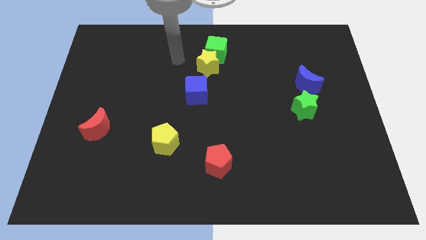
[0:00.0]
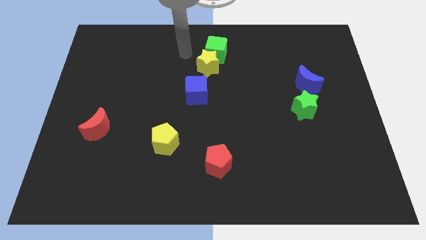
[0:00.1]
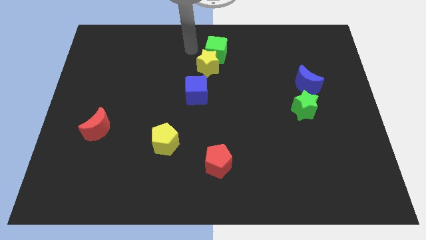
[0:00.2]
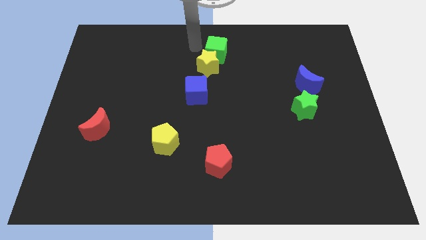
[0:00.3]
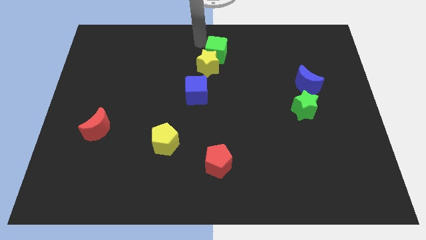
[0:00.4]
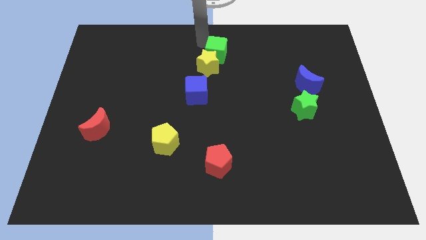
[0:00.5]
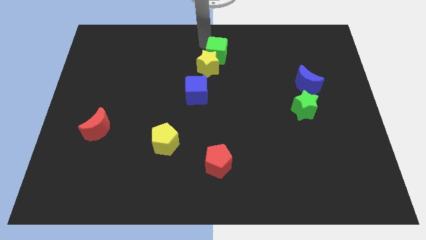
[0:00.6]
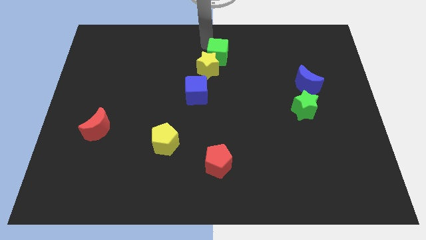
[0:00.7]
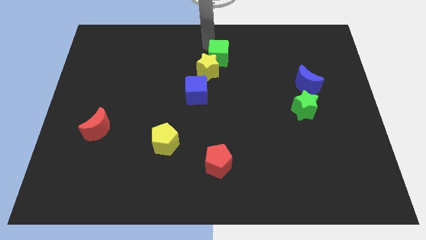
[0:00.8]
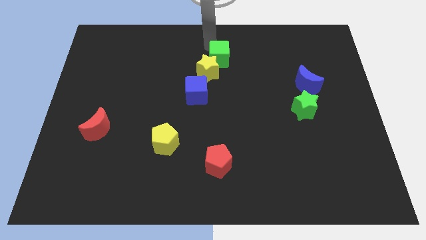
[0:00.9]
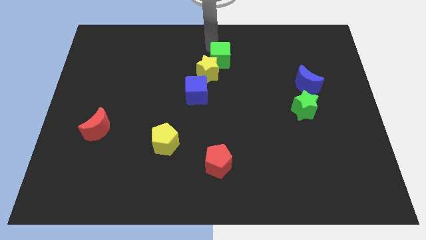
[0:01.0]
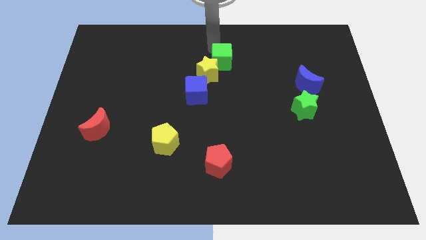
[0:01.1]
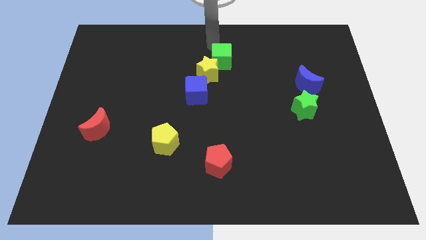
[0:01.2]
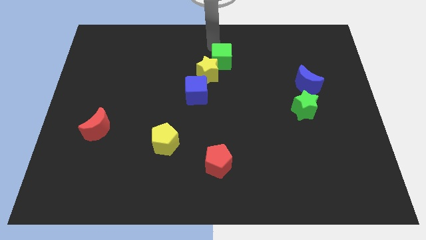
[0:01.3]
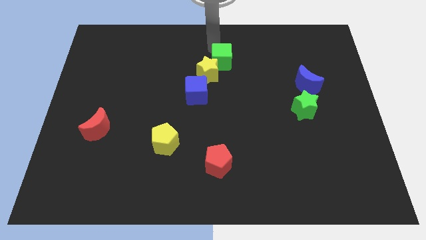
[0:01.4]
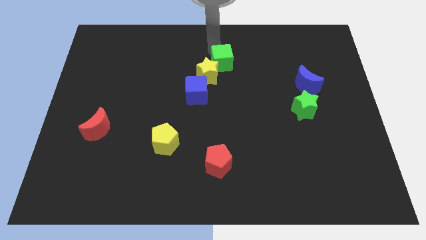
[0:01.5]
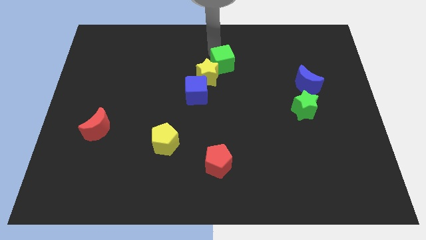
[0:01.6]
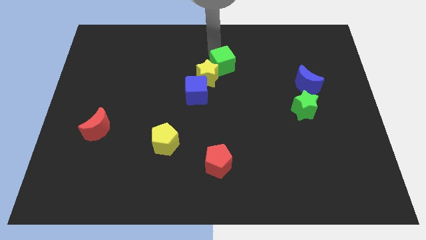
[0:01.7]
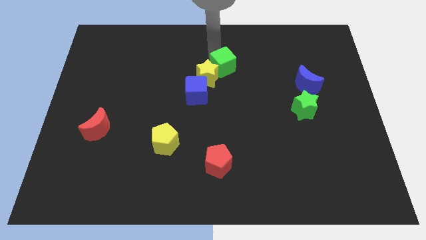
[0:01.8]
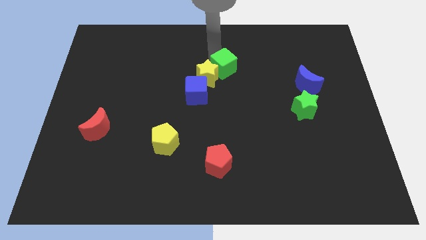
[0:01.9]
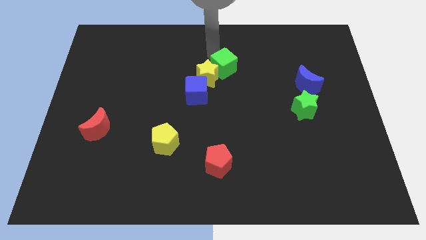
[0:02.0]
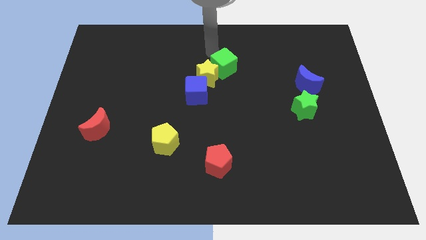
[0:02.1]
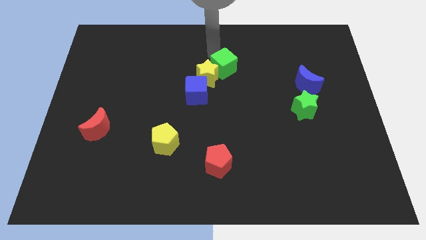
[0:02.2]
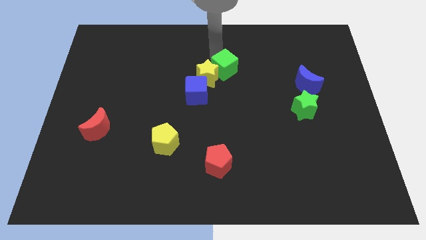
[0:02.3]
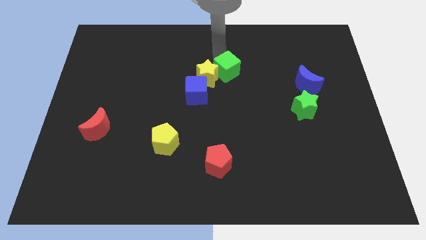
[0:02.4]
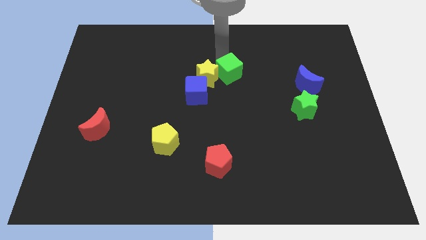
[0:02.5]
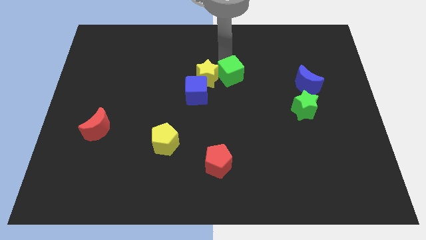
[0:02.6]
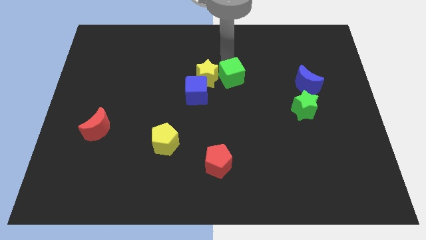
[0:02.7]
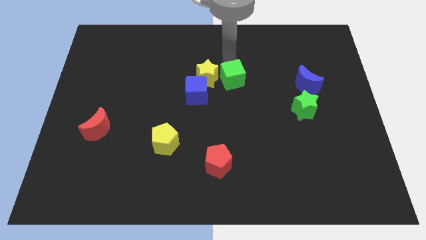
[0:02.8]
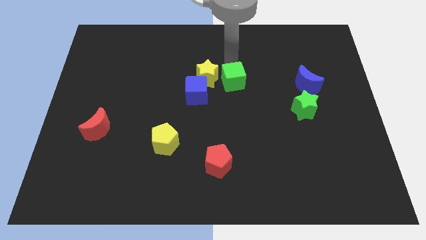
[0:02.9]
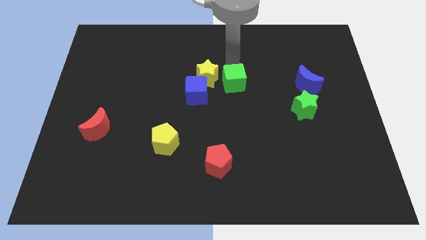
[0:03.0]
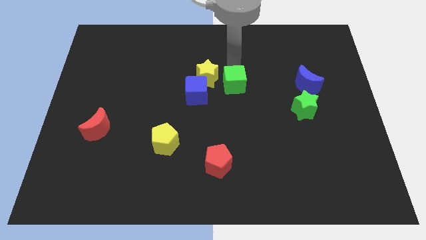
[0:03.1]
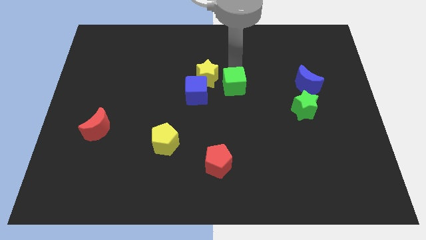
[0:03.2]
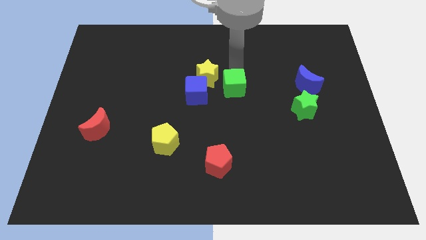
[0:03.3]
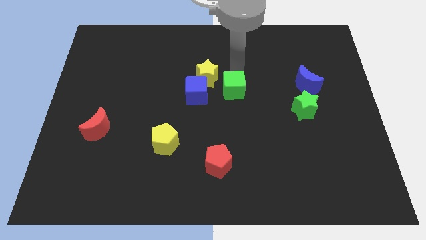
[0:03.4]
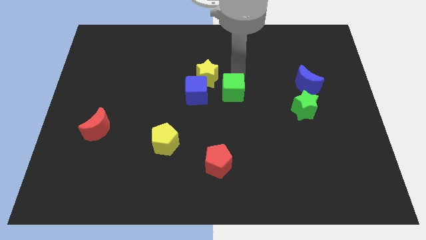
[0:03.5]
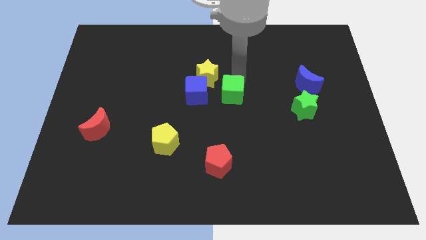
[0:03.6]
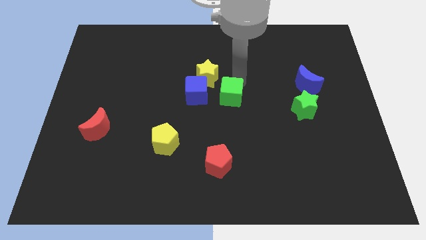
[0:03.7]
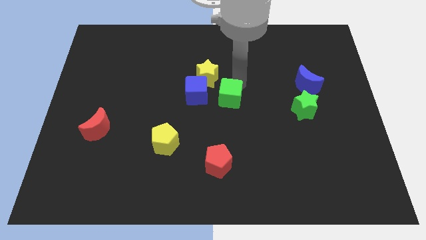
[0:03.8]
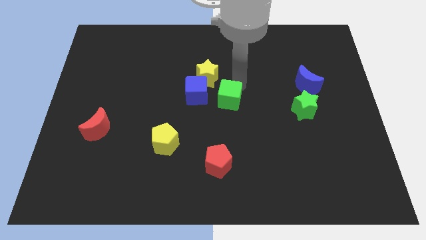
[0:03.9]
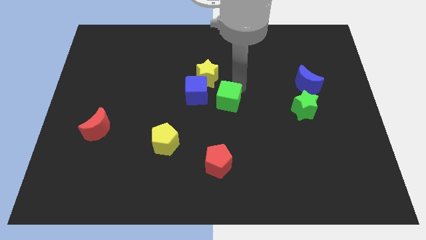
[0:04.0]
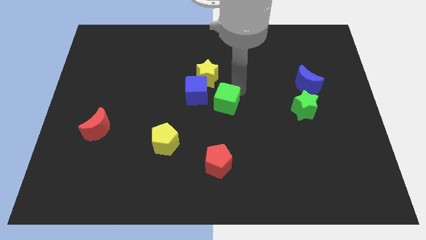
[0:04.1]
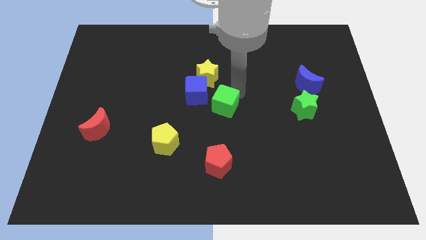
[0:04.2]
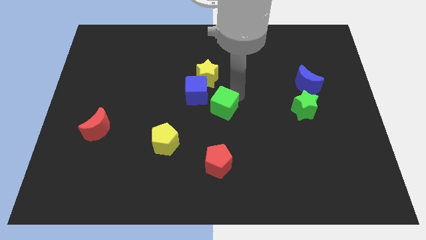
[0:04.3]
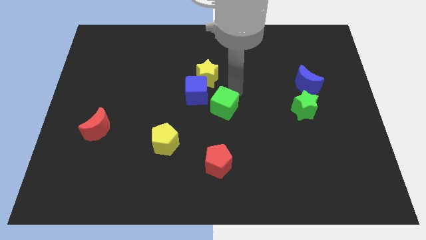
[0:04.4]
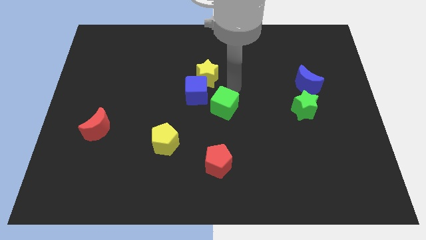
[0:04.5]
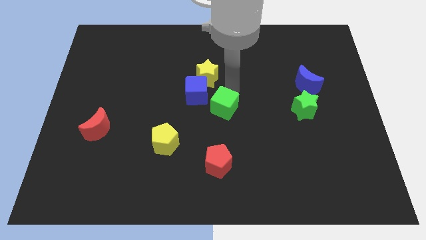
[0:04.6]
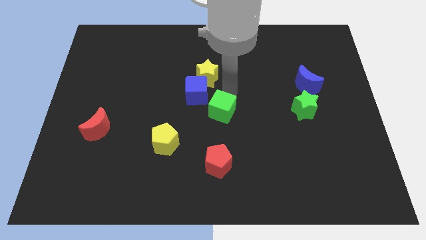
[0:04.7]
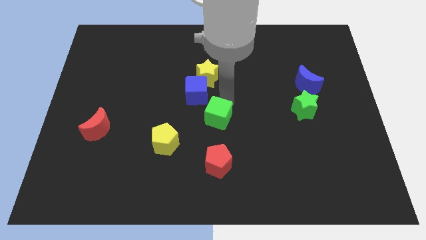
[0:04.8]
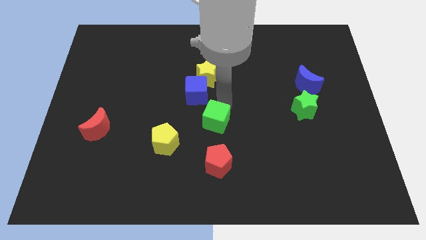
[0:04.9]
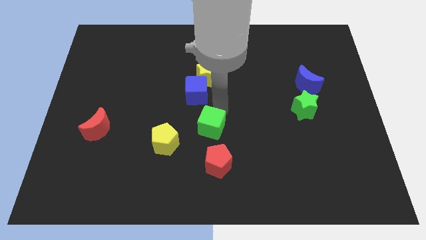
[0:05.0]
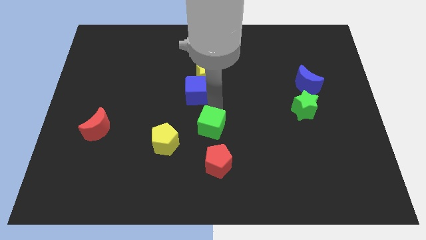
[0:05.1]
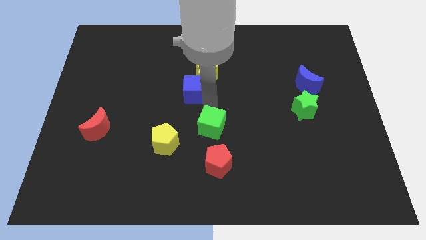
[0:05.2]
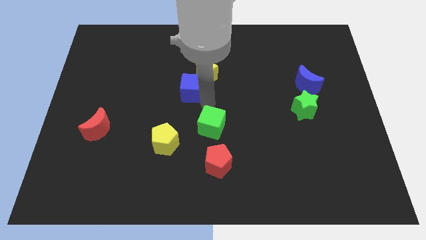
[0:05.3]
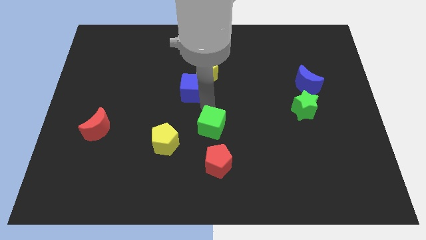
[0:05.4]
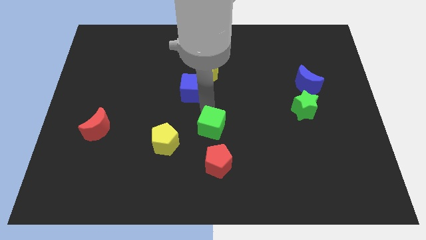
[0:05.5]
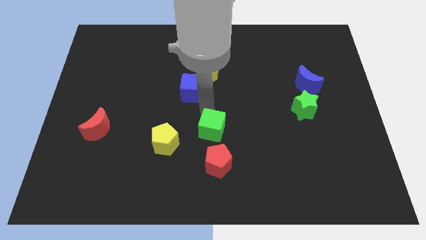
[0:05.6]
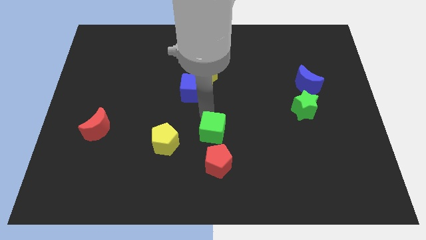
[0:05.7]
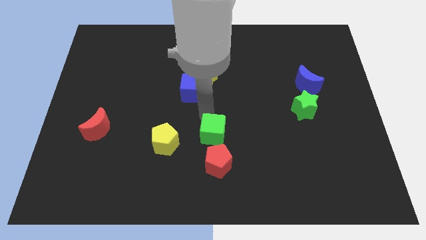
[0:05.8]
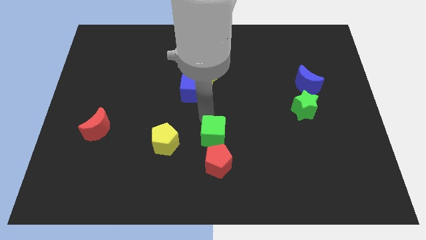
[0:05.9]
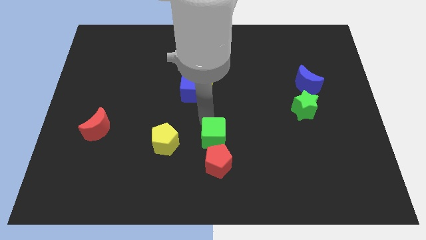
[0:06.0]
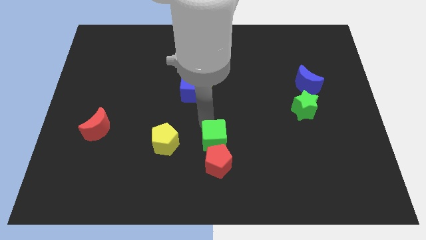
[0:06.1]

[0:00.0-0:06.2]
push the green cube to the red pentagon

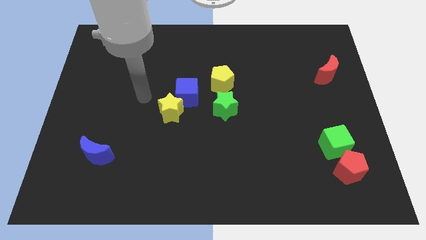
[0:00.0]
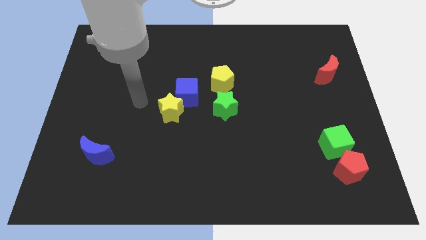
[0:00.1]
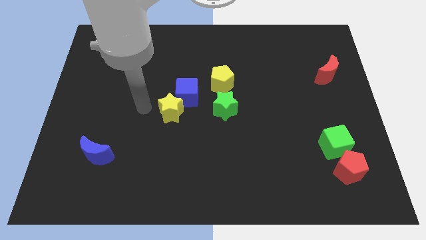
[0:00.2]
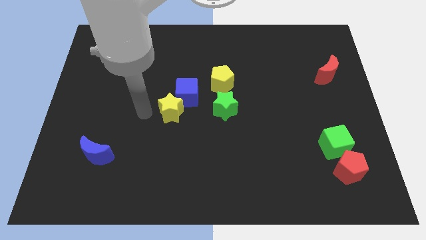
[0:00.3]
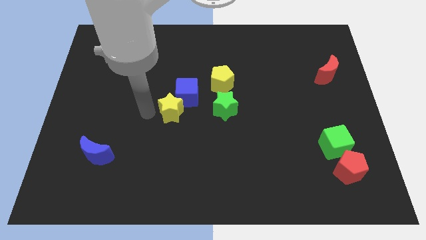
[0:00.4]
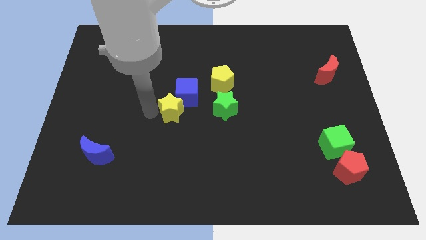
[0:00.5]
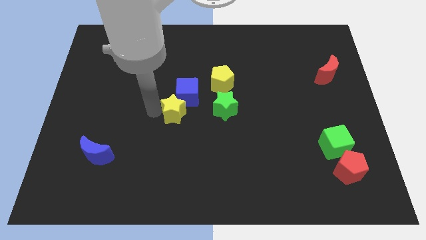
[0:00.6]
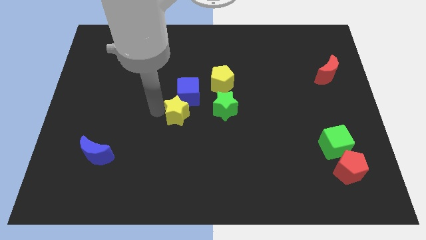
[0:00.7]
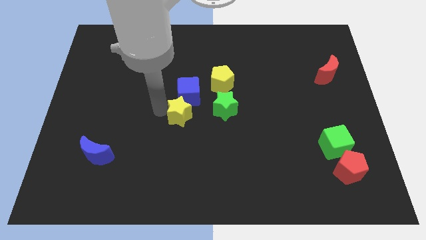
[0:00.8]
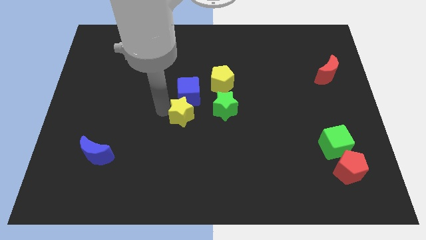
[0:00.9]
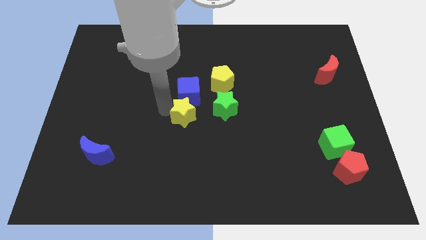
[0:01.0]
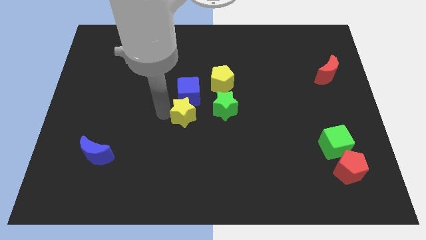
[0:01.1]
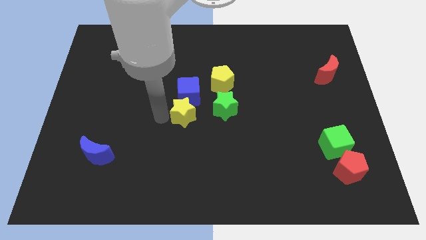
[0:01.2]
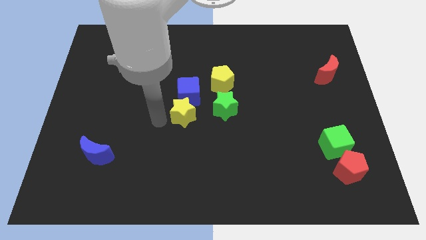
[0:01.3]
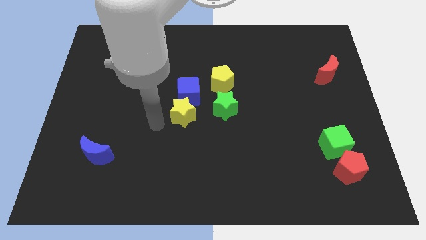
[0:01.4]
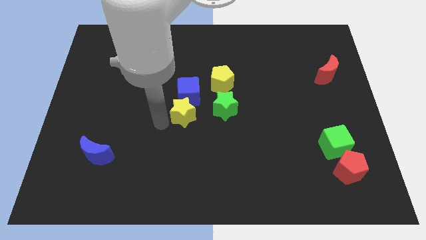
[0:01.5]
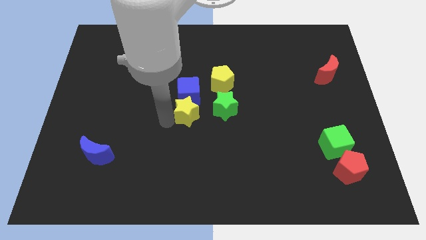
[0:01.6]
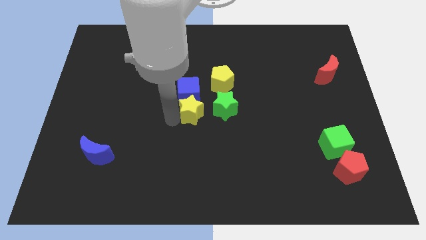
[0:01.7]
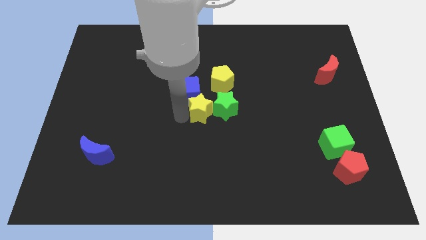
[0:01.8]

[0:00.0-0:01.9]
put the yellow star to the green star
